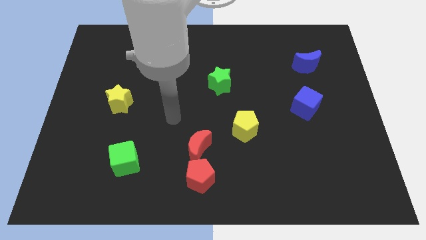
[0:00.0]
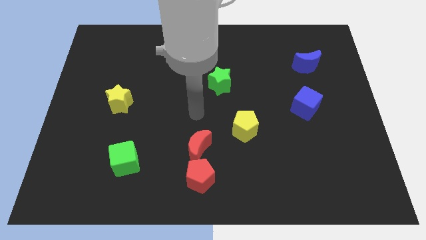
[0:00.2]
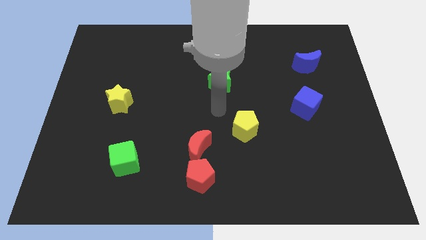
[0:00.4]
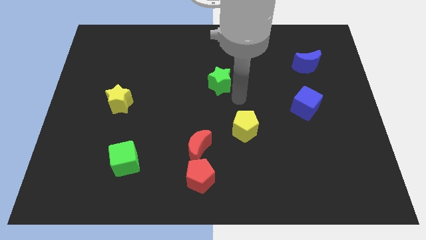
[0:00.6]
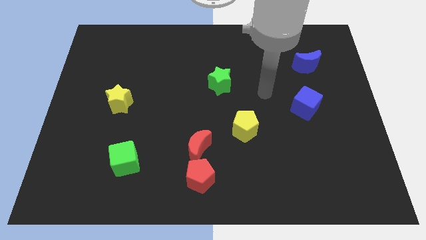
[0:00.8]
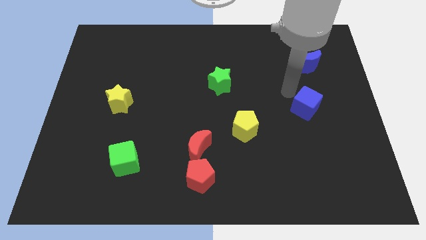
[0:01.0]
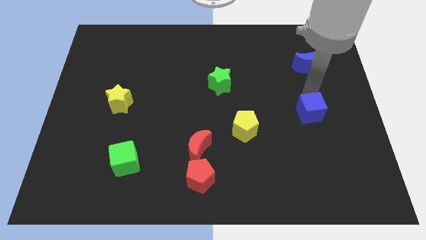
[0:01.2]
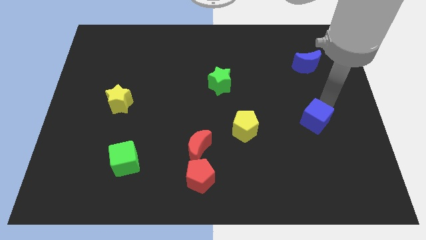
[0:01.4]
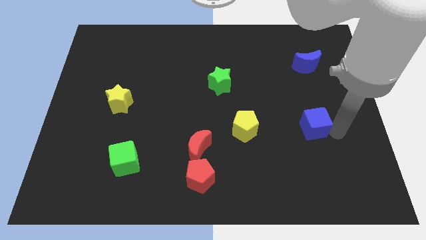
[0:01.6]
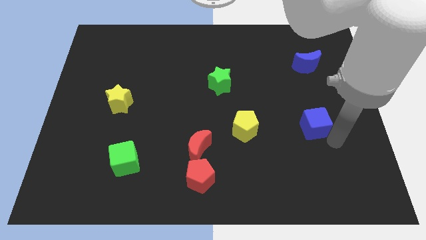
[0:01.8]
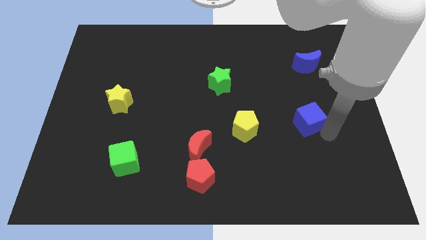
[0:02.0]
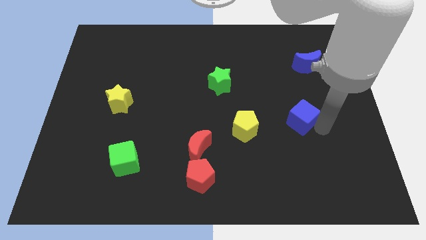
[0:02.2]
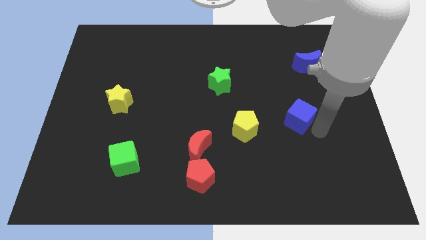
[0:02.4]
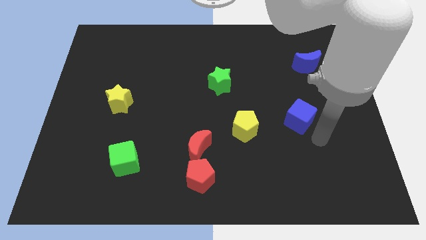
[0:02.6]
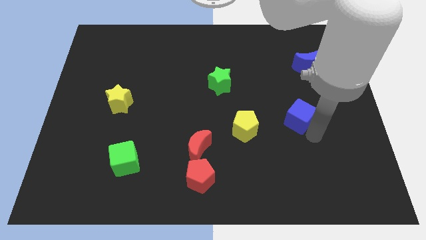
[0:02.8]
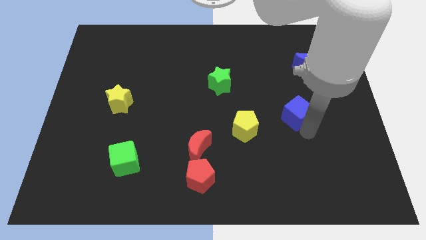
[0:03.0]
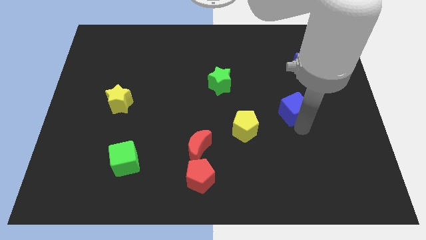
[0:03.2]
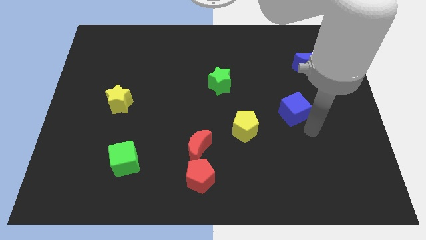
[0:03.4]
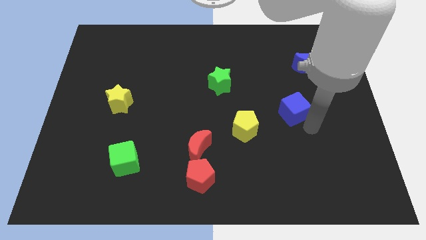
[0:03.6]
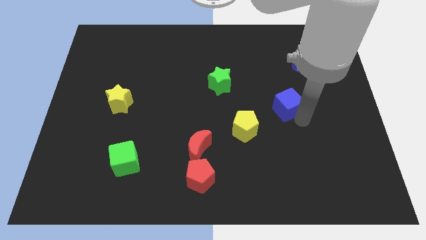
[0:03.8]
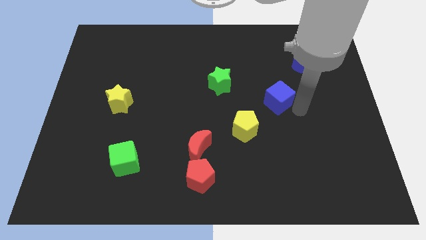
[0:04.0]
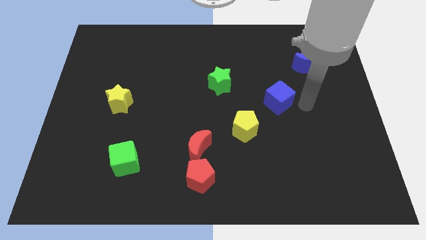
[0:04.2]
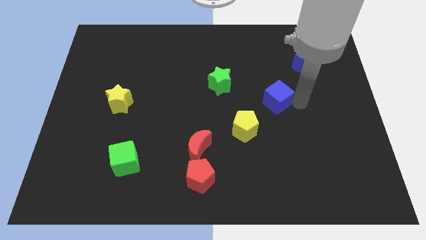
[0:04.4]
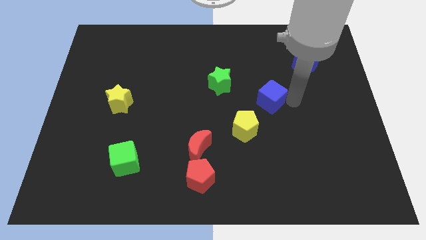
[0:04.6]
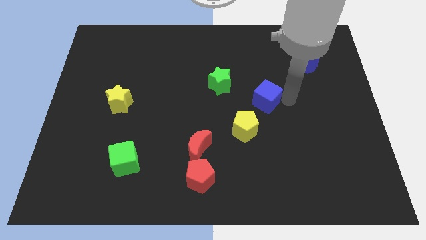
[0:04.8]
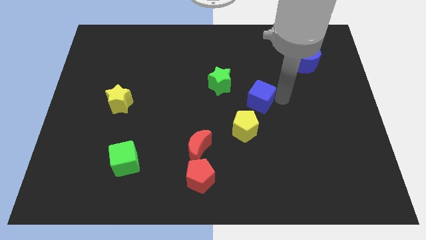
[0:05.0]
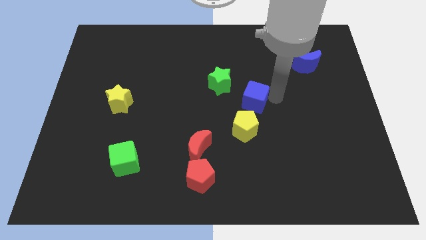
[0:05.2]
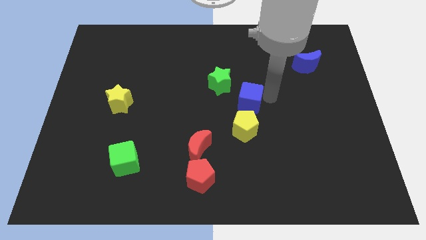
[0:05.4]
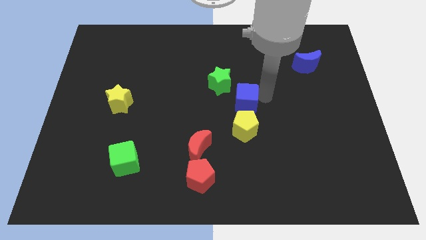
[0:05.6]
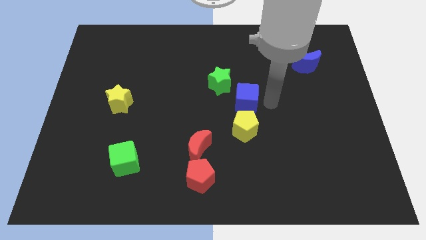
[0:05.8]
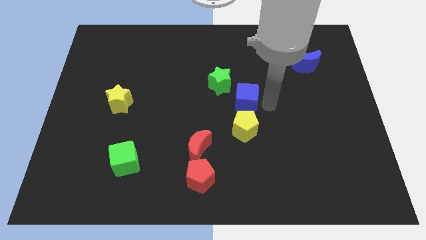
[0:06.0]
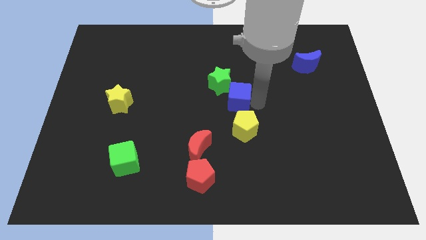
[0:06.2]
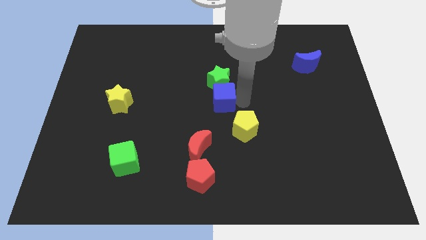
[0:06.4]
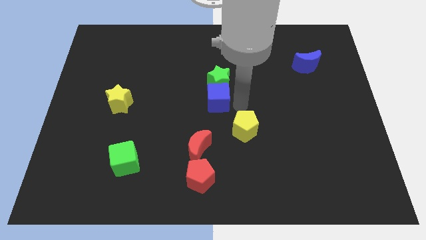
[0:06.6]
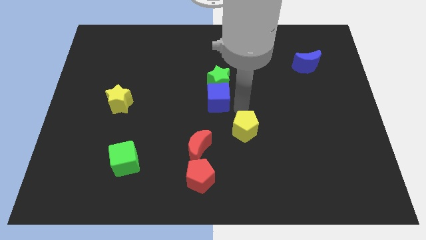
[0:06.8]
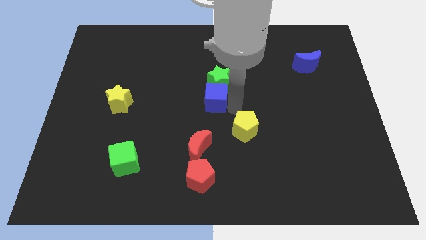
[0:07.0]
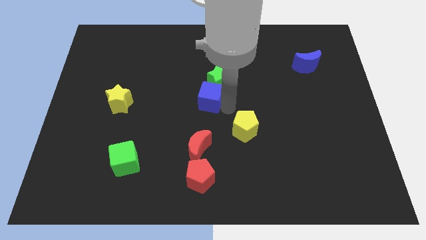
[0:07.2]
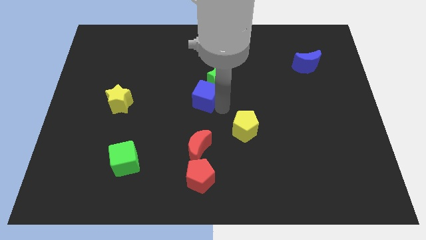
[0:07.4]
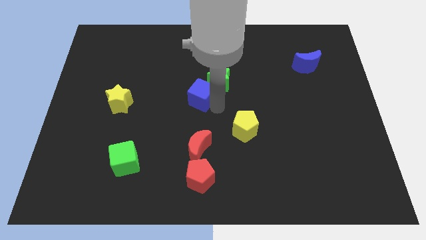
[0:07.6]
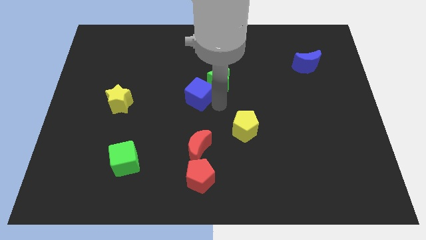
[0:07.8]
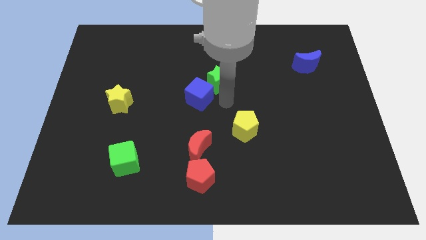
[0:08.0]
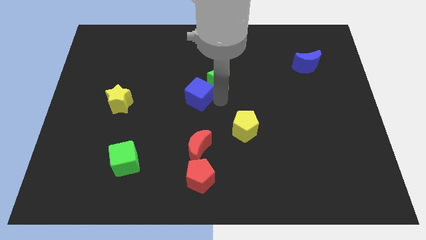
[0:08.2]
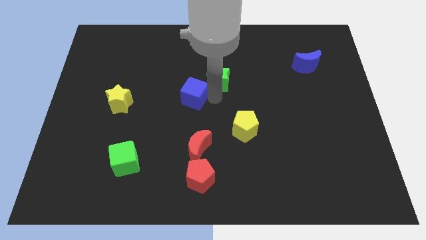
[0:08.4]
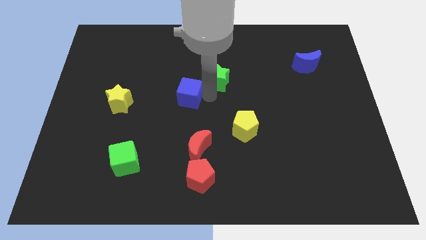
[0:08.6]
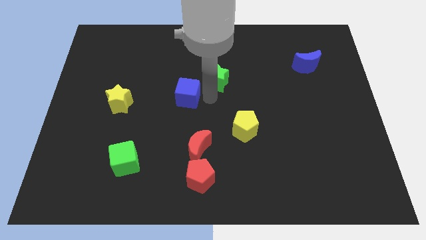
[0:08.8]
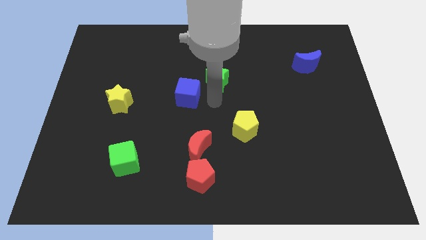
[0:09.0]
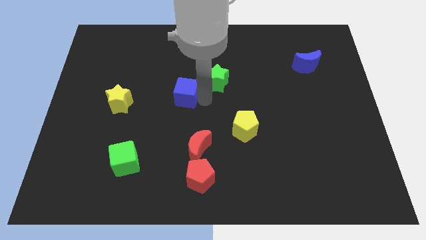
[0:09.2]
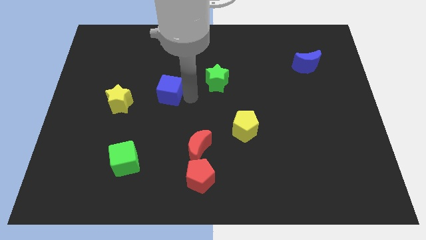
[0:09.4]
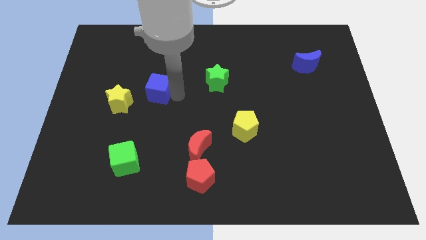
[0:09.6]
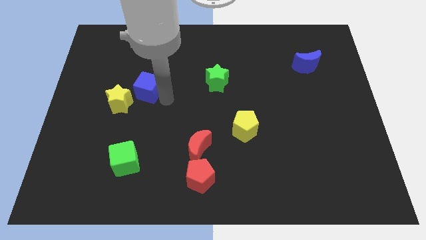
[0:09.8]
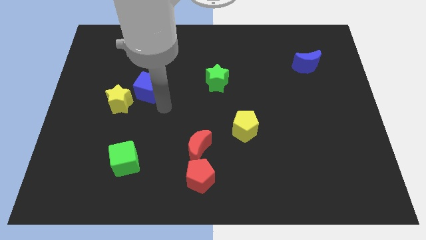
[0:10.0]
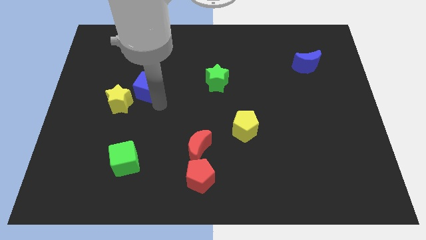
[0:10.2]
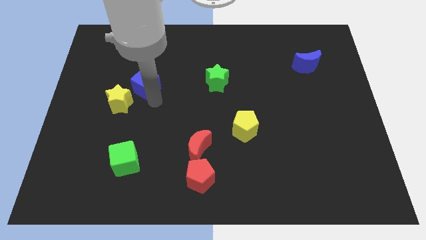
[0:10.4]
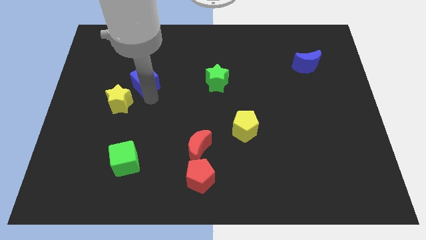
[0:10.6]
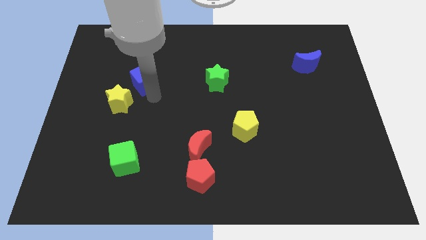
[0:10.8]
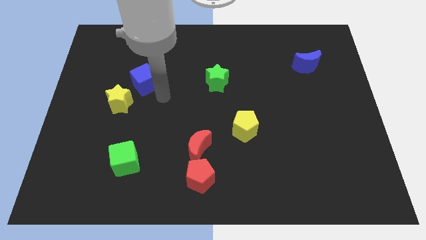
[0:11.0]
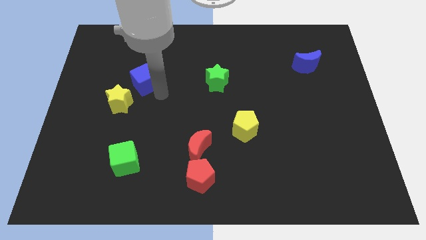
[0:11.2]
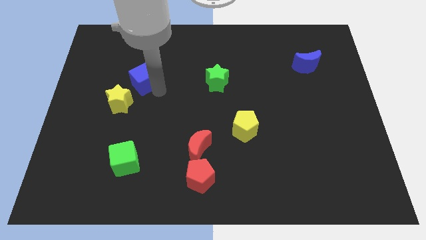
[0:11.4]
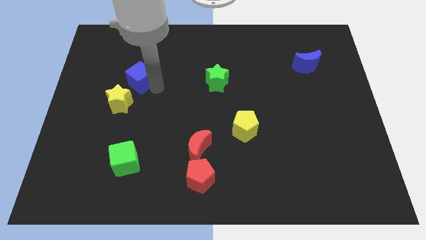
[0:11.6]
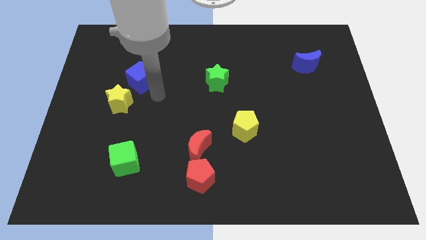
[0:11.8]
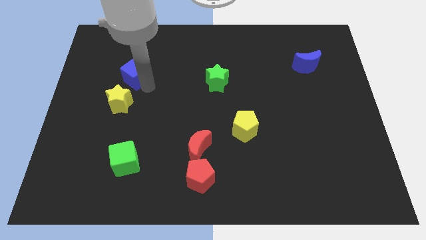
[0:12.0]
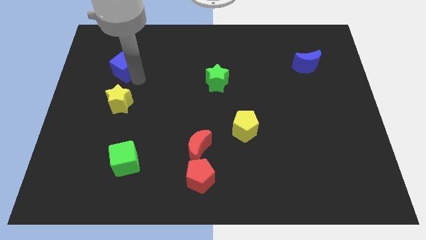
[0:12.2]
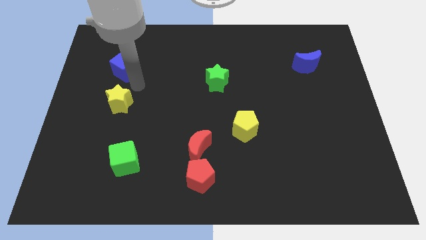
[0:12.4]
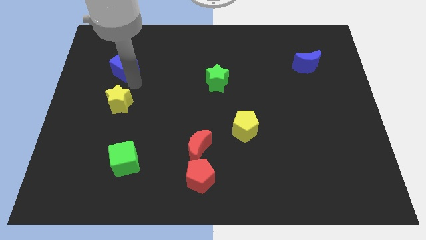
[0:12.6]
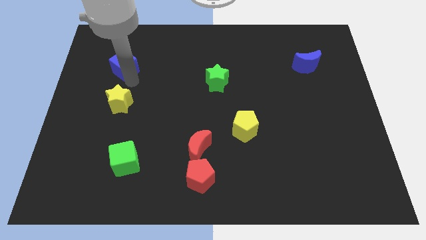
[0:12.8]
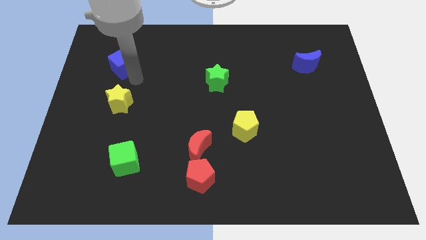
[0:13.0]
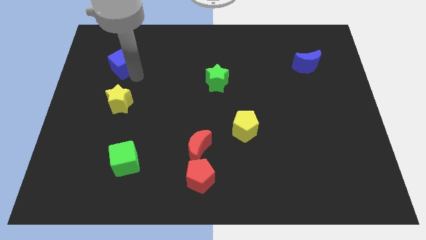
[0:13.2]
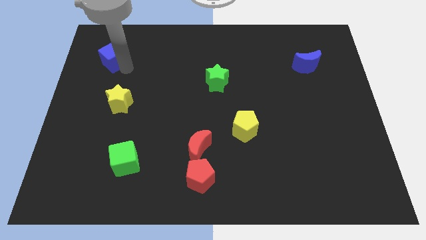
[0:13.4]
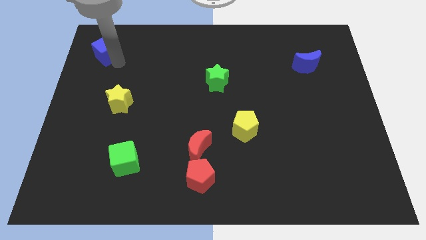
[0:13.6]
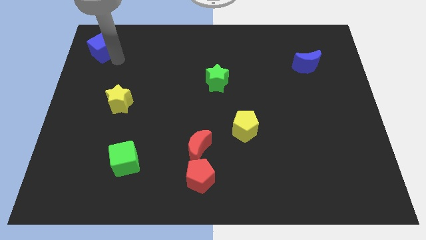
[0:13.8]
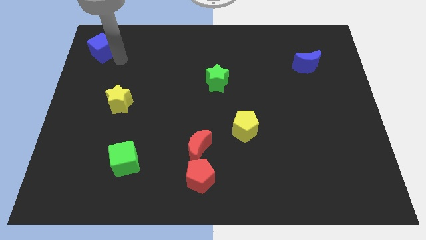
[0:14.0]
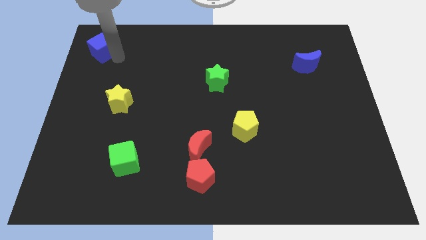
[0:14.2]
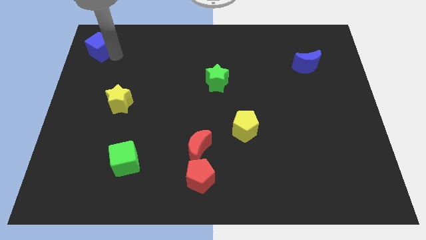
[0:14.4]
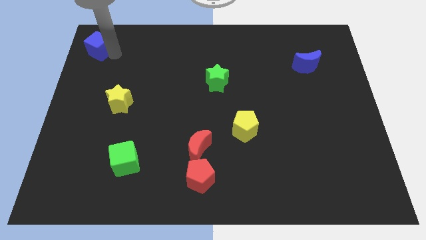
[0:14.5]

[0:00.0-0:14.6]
push the blue cube to the top left corner
